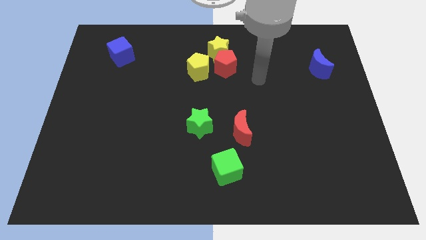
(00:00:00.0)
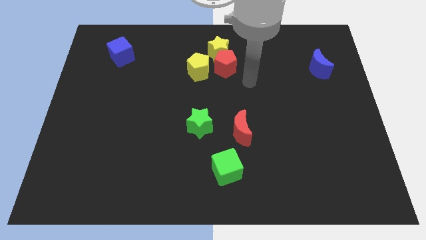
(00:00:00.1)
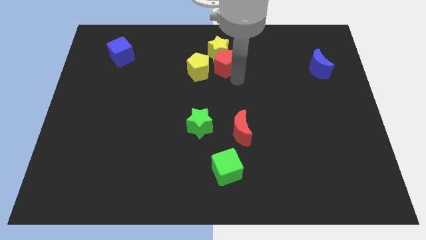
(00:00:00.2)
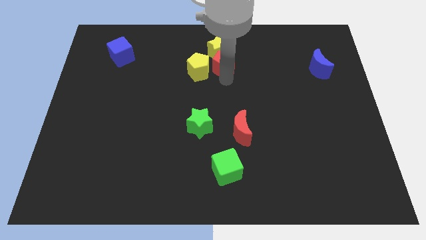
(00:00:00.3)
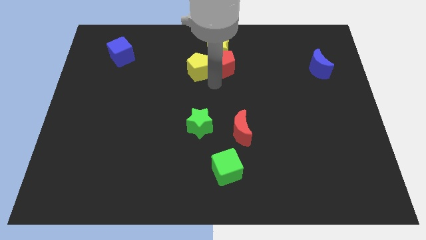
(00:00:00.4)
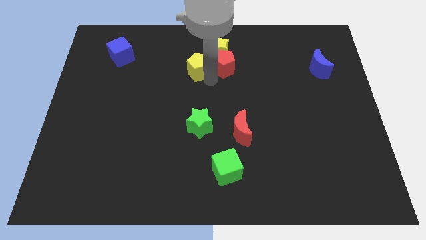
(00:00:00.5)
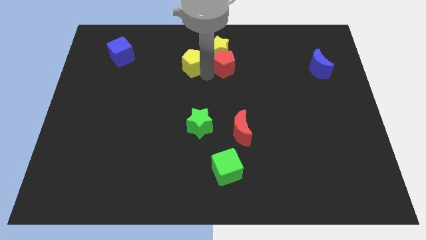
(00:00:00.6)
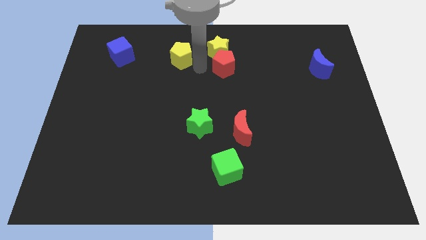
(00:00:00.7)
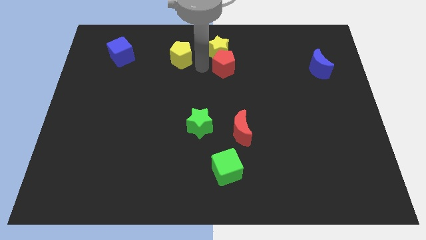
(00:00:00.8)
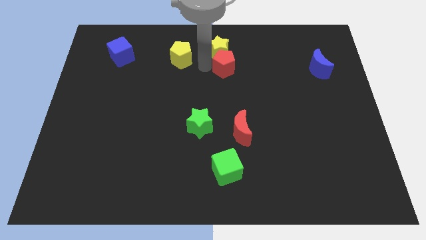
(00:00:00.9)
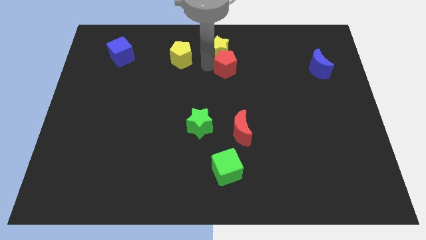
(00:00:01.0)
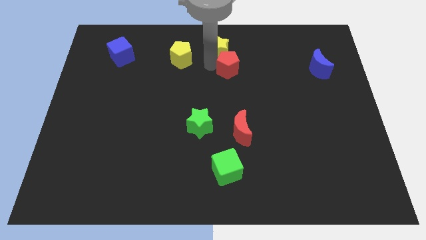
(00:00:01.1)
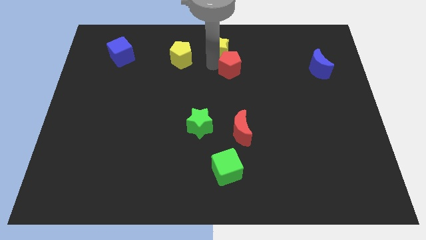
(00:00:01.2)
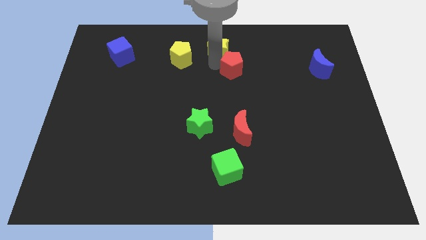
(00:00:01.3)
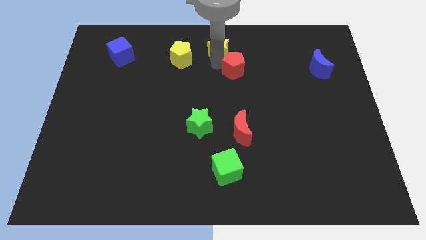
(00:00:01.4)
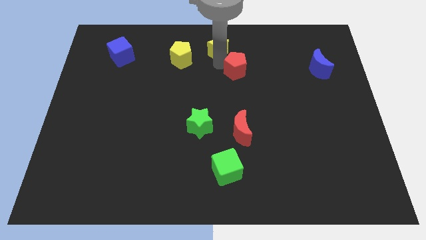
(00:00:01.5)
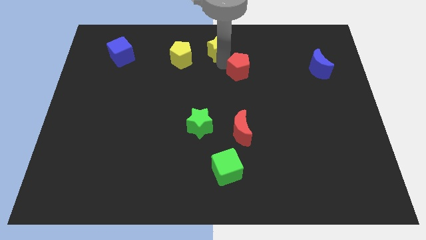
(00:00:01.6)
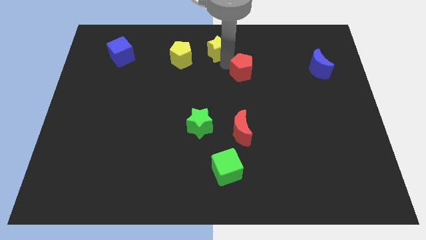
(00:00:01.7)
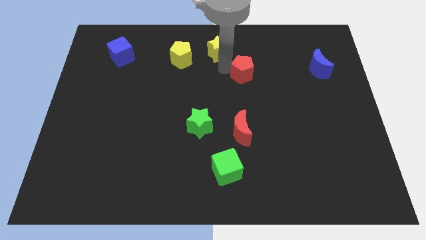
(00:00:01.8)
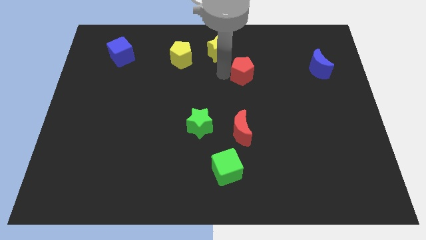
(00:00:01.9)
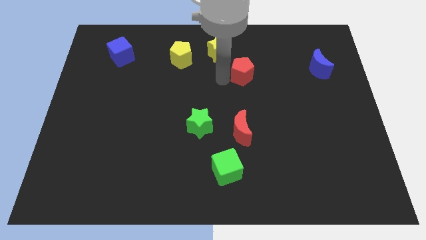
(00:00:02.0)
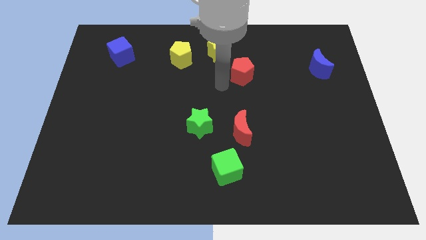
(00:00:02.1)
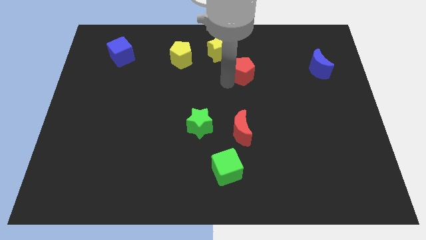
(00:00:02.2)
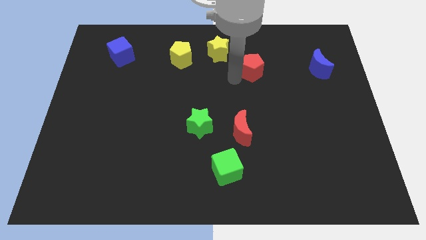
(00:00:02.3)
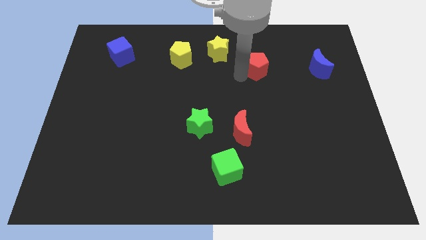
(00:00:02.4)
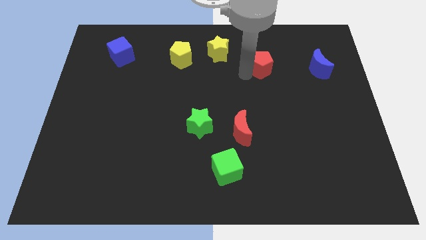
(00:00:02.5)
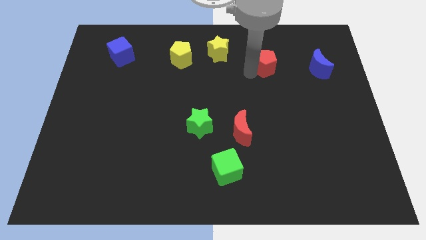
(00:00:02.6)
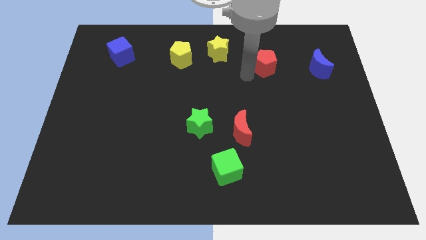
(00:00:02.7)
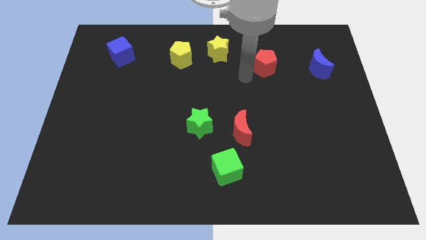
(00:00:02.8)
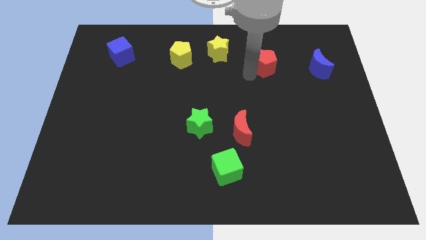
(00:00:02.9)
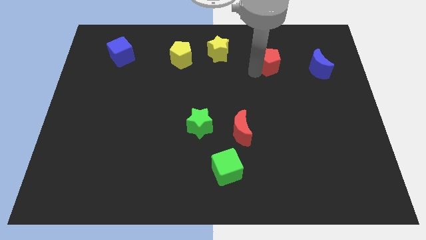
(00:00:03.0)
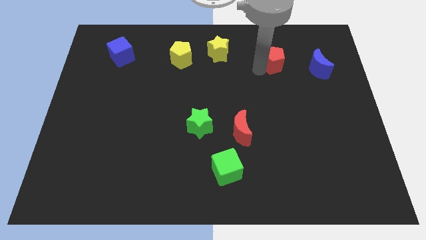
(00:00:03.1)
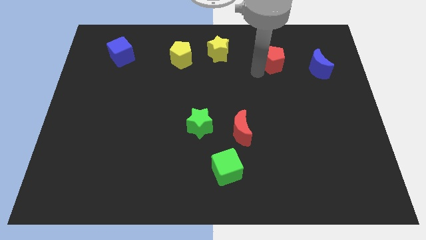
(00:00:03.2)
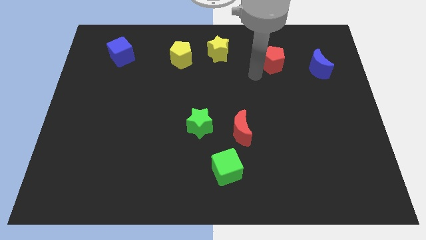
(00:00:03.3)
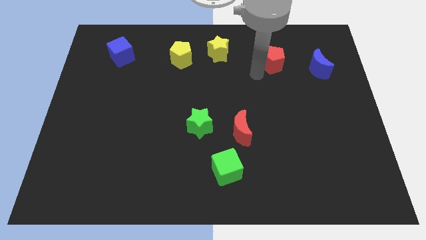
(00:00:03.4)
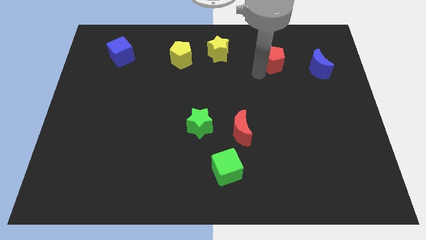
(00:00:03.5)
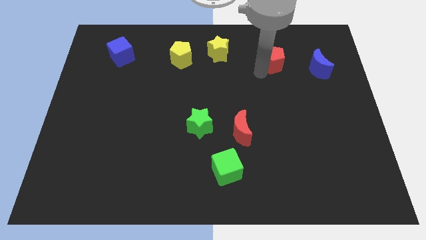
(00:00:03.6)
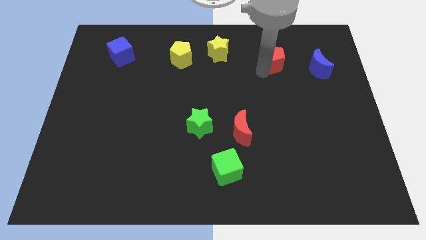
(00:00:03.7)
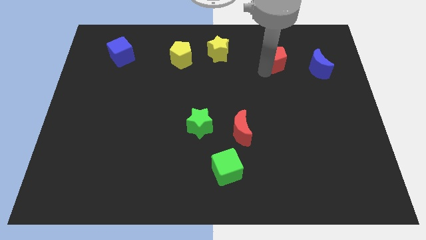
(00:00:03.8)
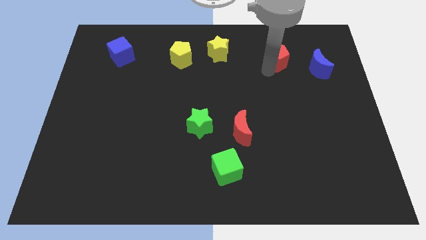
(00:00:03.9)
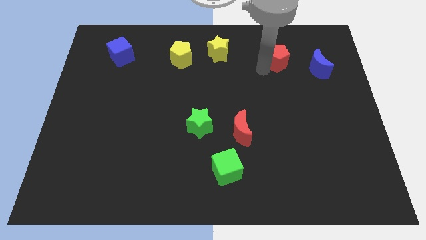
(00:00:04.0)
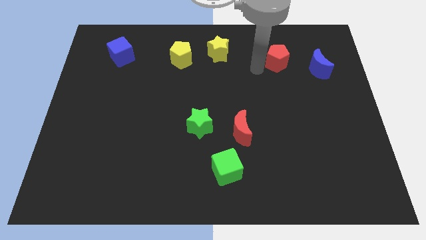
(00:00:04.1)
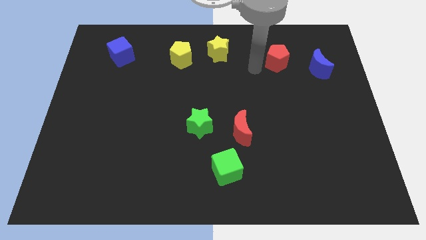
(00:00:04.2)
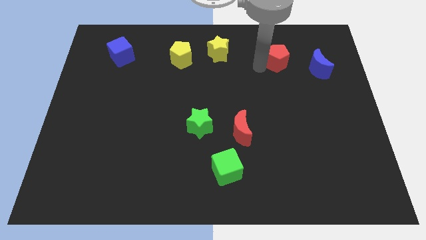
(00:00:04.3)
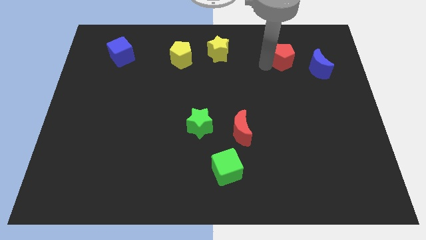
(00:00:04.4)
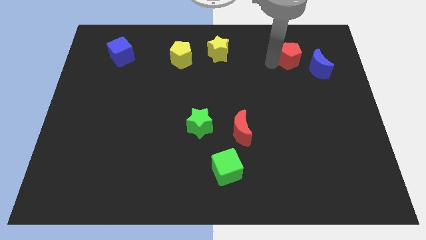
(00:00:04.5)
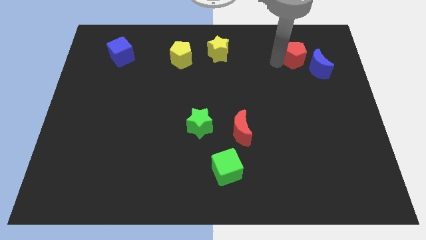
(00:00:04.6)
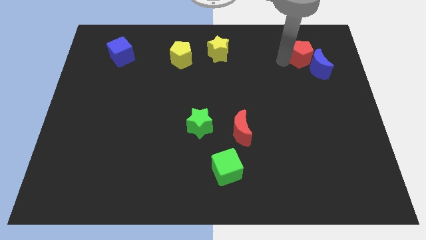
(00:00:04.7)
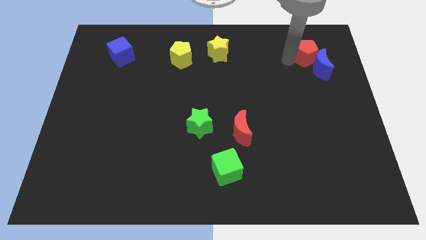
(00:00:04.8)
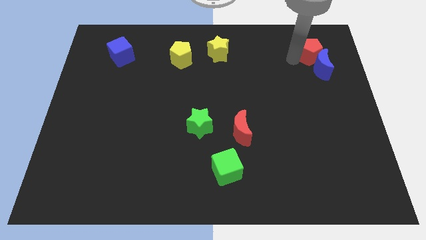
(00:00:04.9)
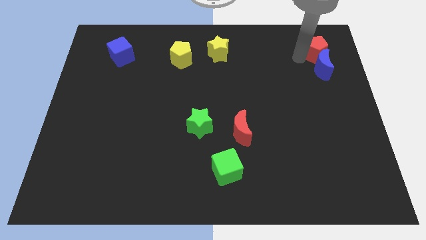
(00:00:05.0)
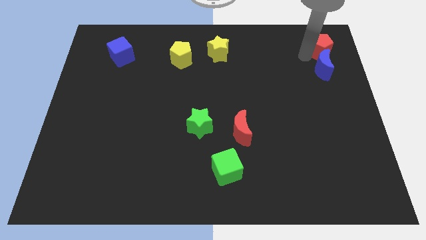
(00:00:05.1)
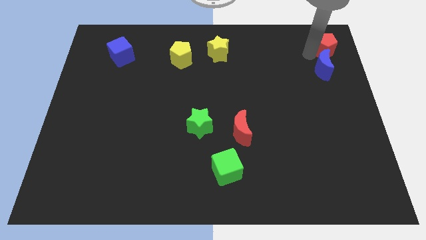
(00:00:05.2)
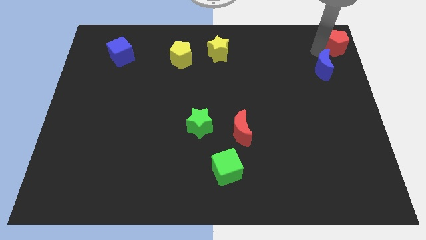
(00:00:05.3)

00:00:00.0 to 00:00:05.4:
put the red pentagon to the top right of the board

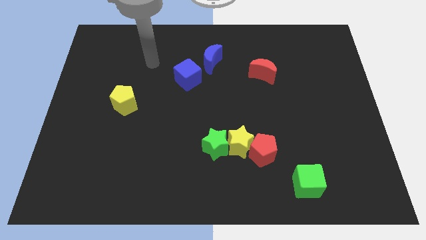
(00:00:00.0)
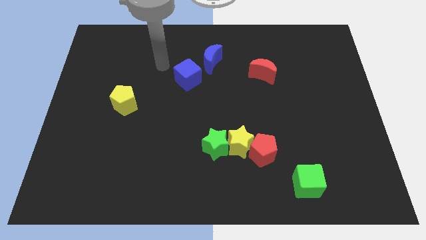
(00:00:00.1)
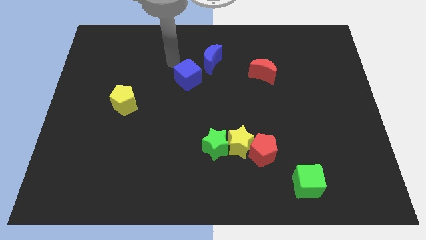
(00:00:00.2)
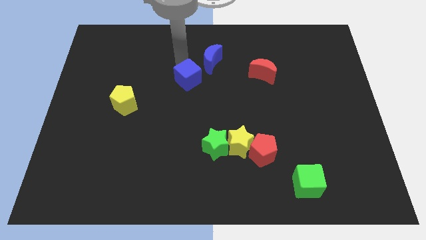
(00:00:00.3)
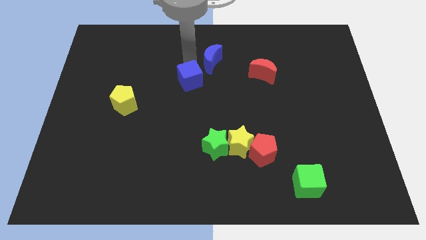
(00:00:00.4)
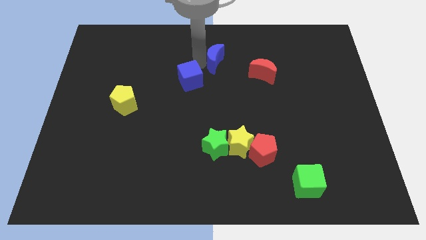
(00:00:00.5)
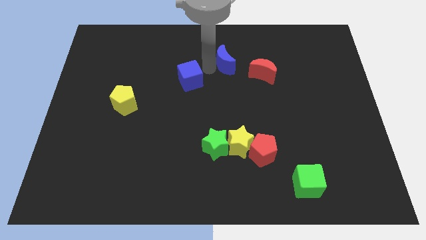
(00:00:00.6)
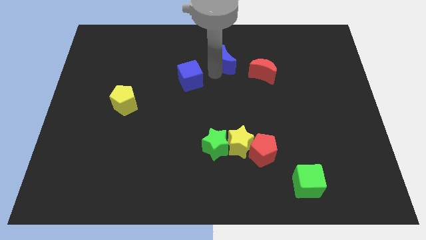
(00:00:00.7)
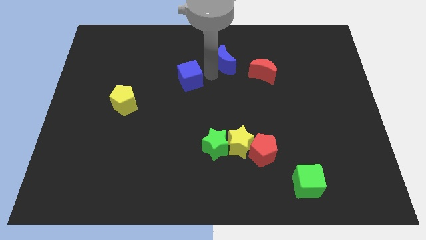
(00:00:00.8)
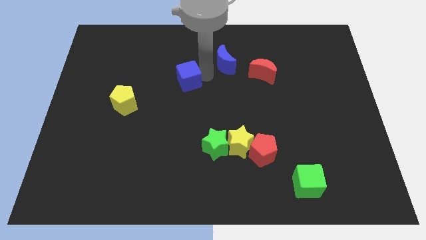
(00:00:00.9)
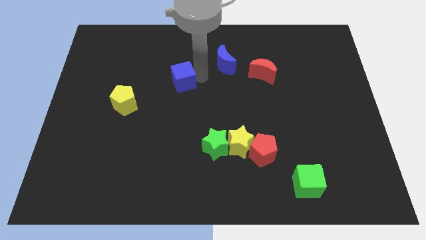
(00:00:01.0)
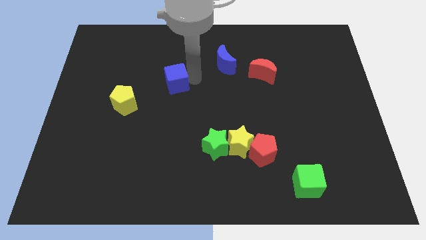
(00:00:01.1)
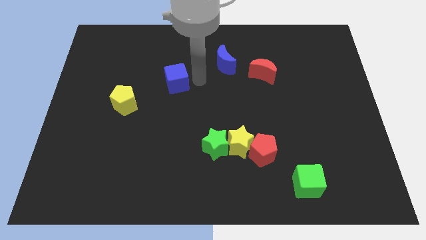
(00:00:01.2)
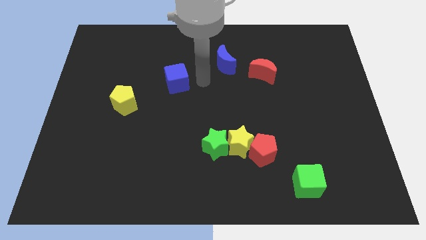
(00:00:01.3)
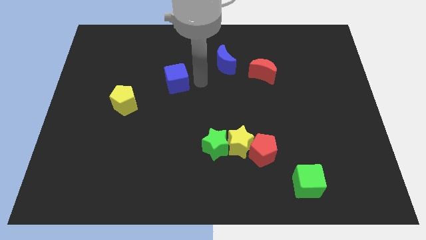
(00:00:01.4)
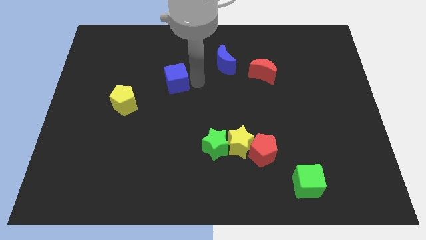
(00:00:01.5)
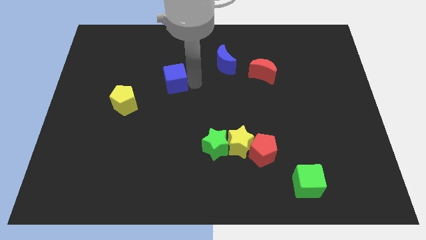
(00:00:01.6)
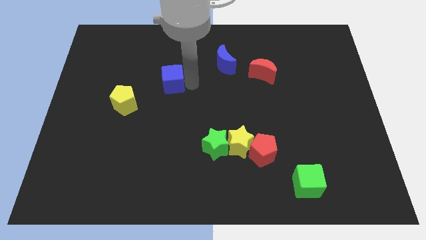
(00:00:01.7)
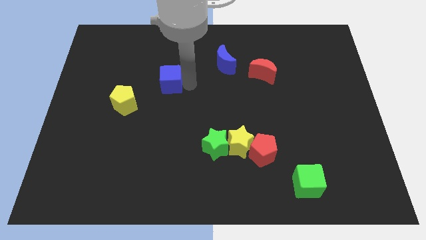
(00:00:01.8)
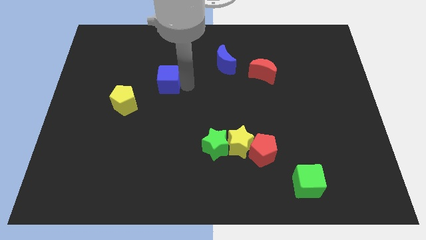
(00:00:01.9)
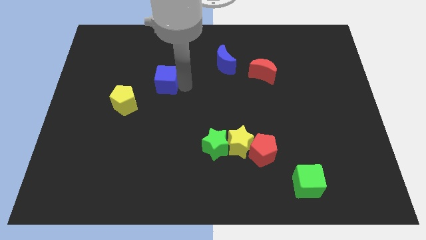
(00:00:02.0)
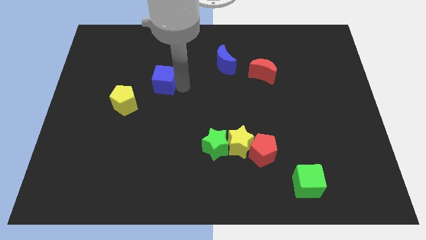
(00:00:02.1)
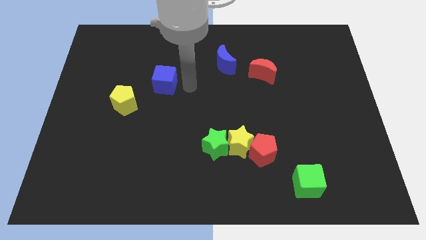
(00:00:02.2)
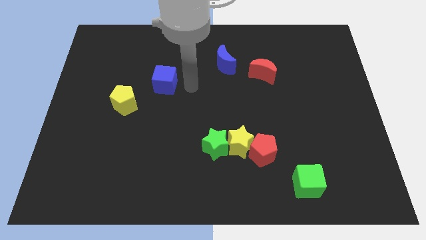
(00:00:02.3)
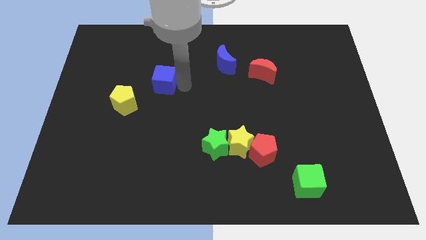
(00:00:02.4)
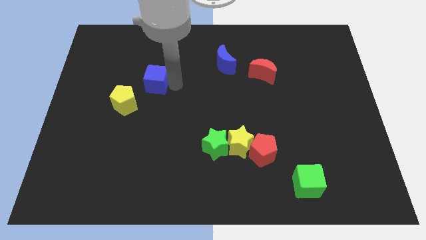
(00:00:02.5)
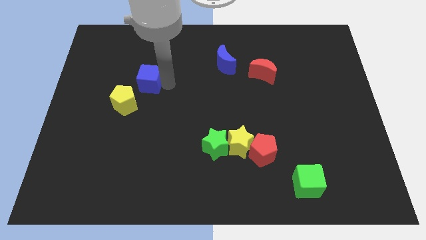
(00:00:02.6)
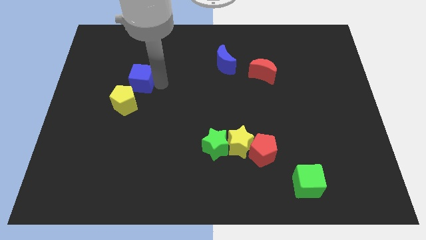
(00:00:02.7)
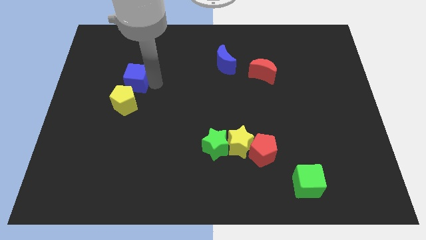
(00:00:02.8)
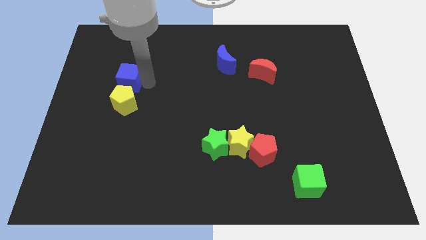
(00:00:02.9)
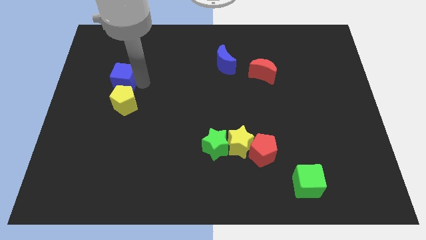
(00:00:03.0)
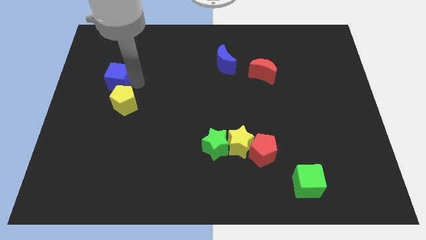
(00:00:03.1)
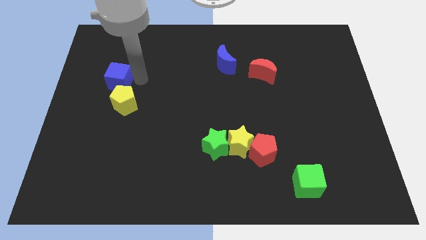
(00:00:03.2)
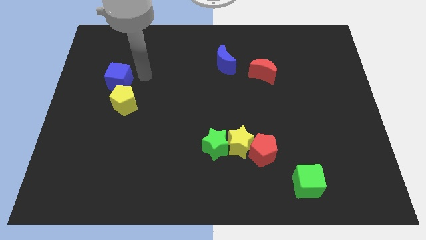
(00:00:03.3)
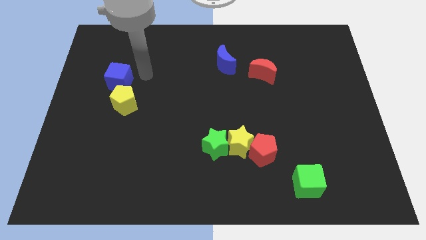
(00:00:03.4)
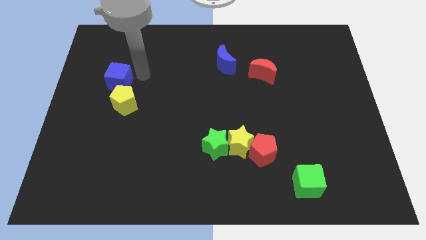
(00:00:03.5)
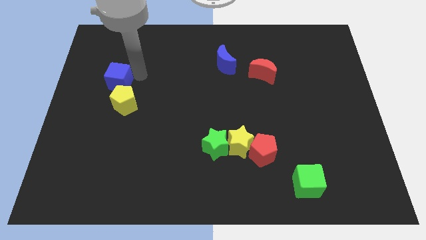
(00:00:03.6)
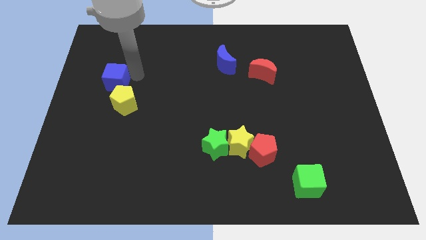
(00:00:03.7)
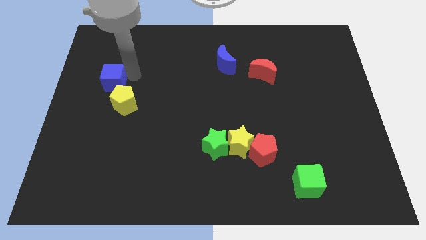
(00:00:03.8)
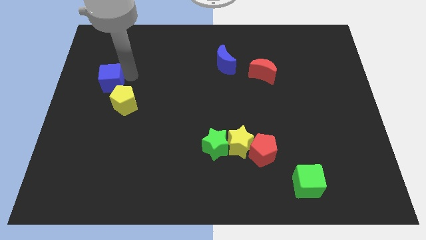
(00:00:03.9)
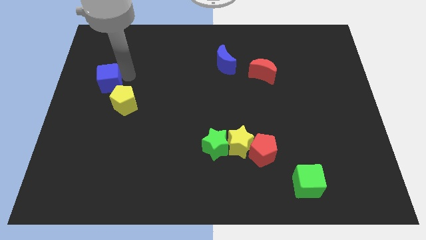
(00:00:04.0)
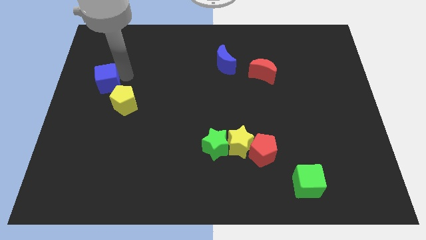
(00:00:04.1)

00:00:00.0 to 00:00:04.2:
move the blue cube to the center left
